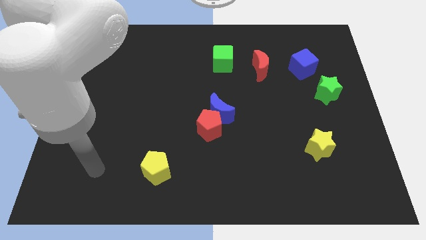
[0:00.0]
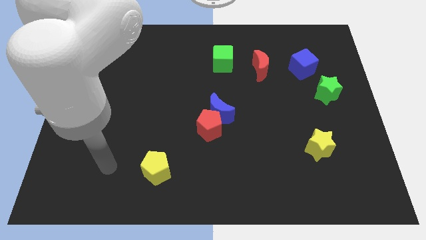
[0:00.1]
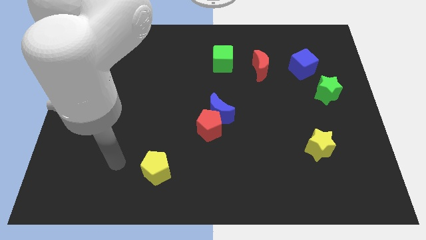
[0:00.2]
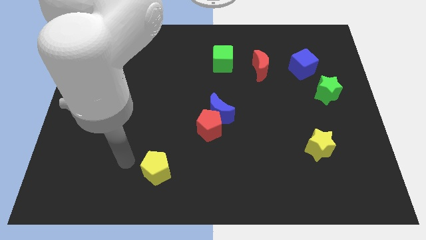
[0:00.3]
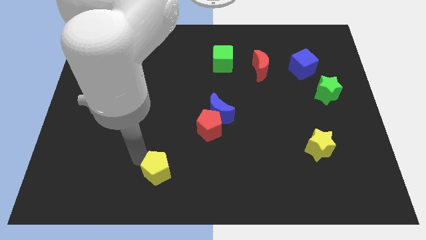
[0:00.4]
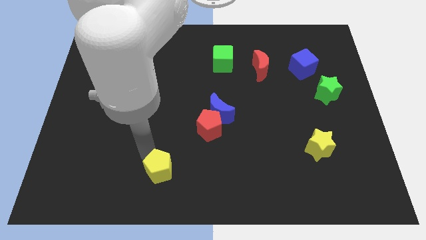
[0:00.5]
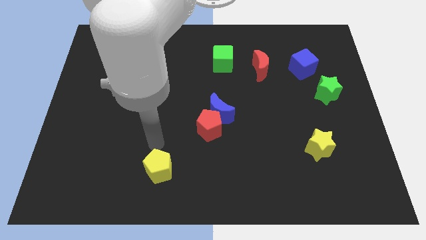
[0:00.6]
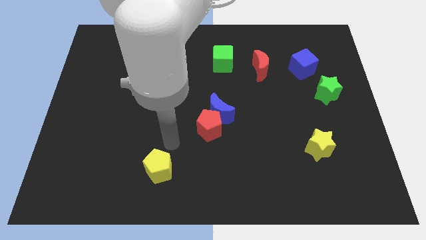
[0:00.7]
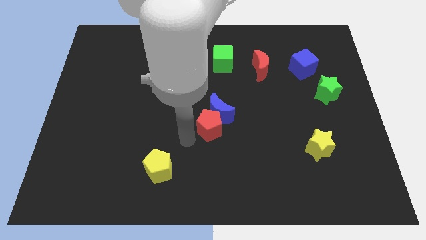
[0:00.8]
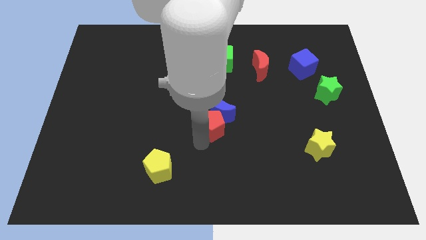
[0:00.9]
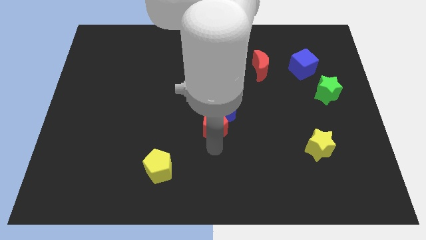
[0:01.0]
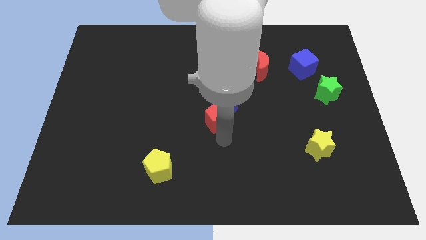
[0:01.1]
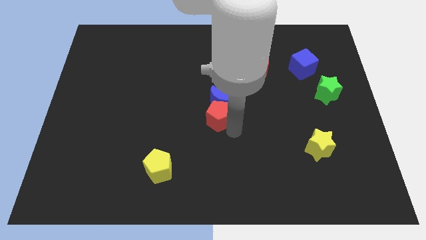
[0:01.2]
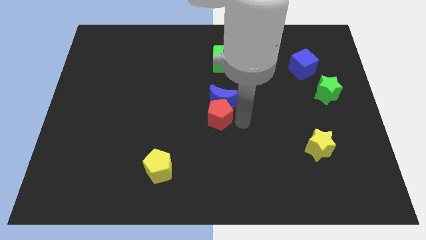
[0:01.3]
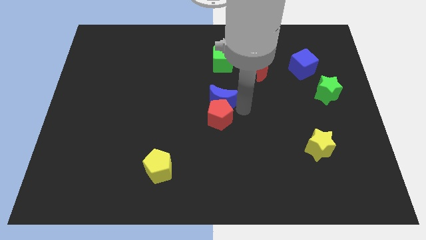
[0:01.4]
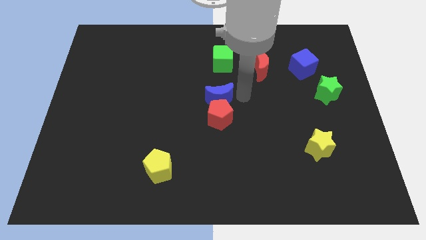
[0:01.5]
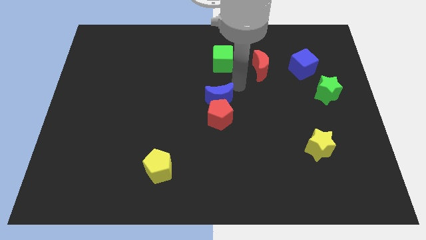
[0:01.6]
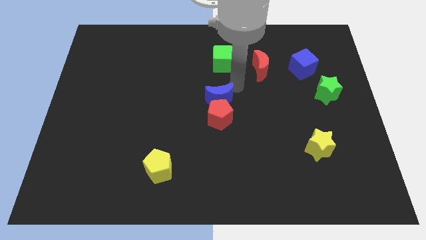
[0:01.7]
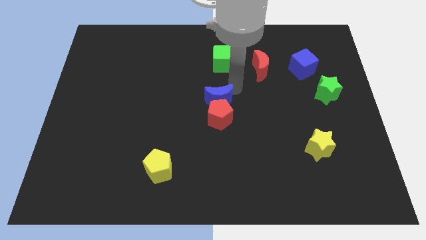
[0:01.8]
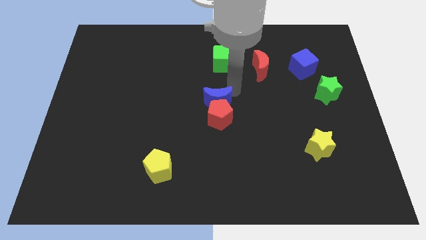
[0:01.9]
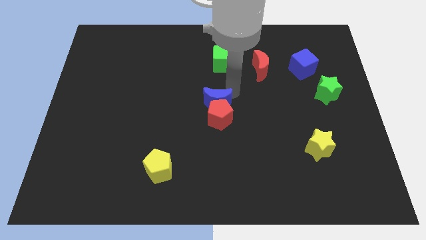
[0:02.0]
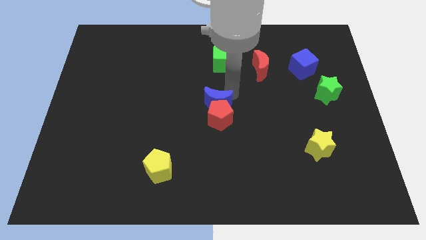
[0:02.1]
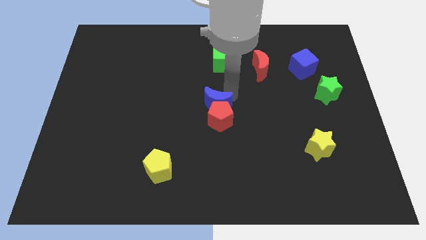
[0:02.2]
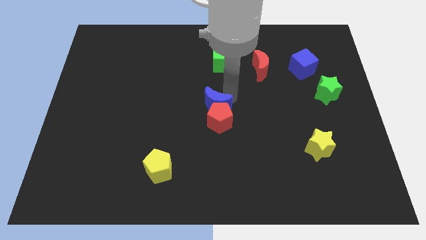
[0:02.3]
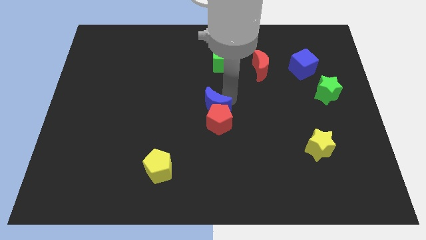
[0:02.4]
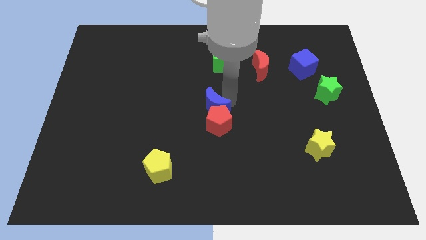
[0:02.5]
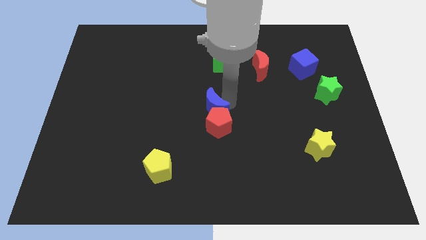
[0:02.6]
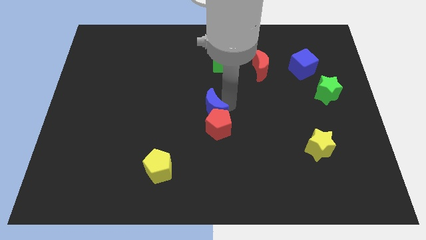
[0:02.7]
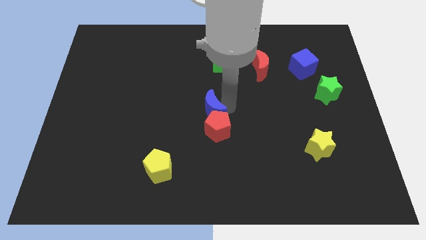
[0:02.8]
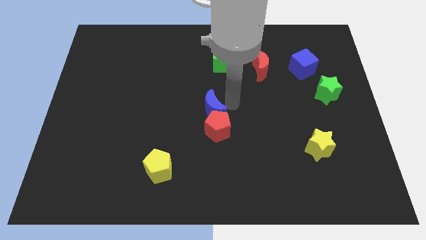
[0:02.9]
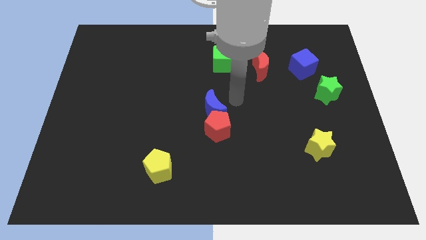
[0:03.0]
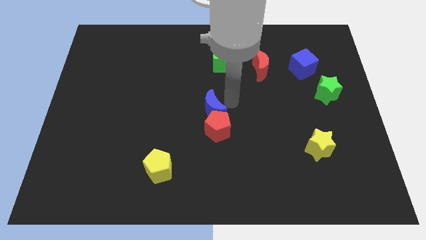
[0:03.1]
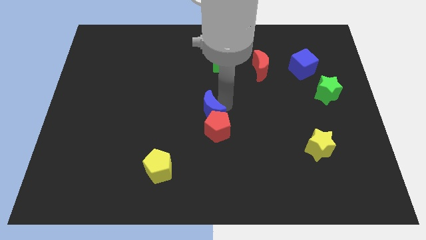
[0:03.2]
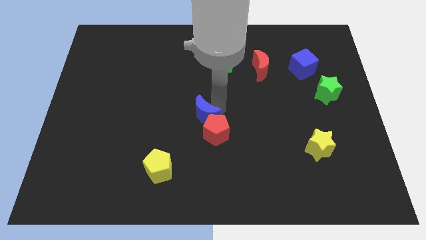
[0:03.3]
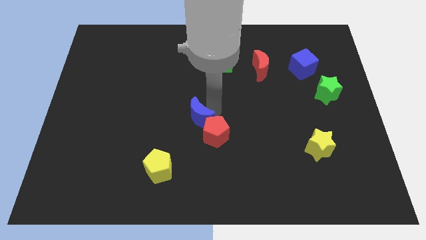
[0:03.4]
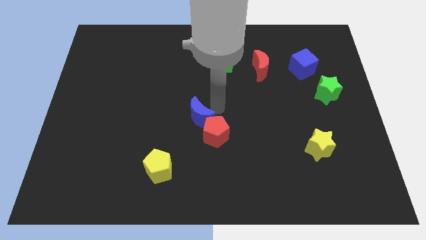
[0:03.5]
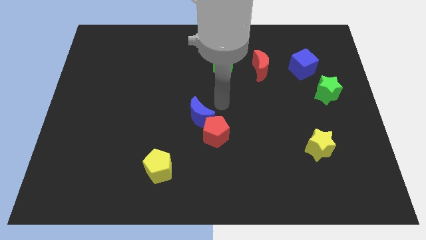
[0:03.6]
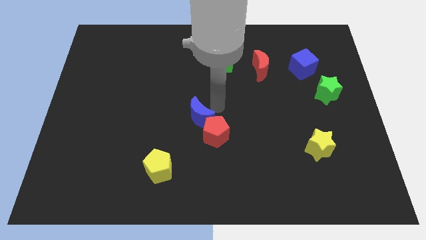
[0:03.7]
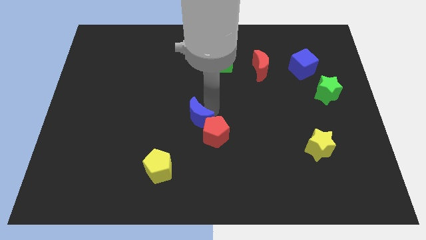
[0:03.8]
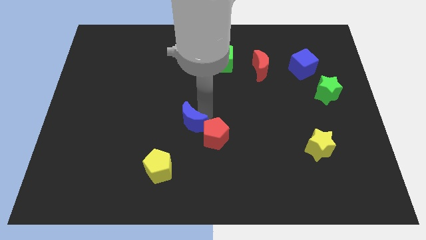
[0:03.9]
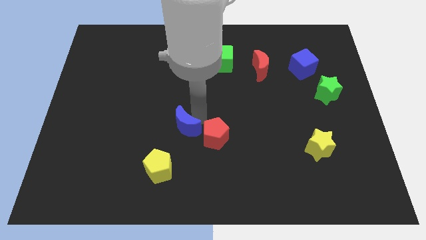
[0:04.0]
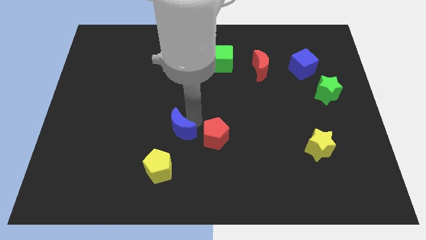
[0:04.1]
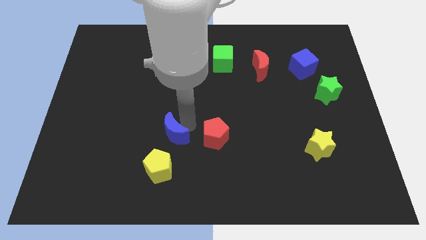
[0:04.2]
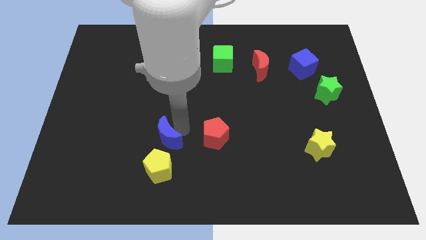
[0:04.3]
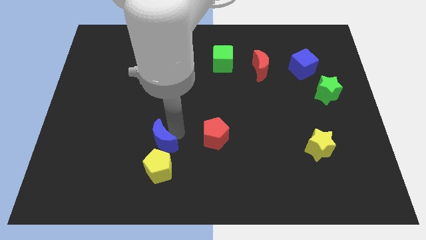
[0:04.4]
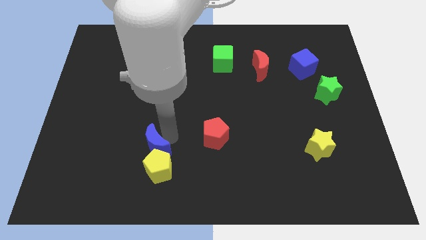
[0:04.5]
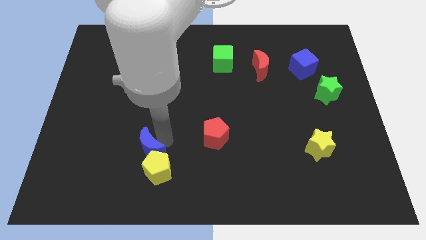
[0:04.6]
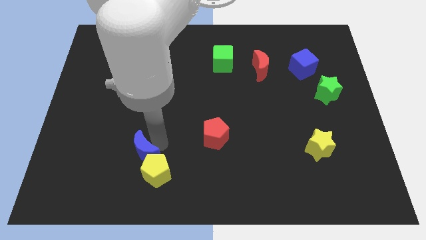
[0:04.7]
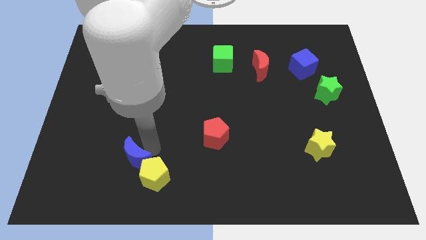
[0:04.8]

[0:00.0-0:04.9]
put the blue moon to the left of the yellow pentagon

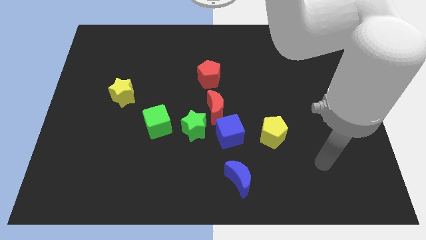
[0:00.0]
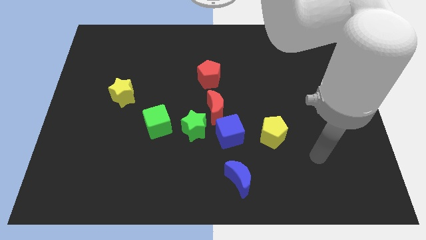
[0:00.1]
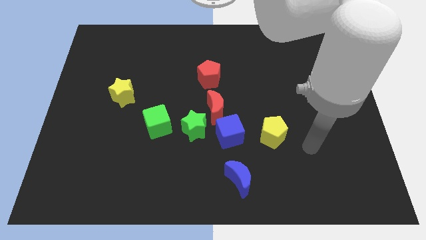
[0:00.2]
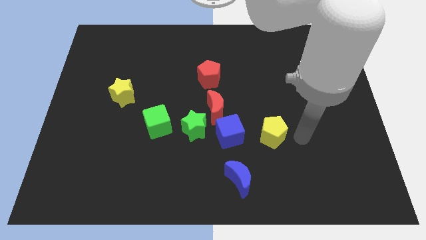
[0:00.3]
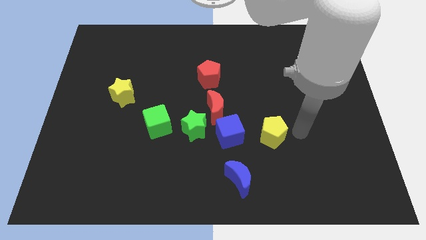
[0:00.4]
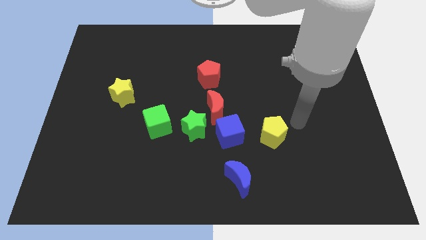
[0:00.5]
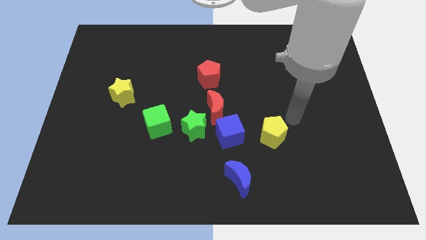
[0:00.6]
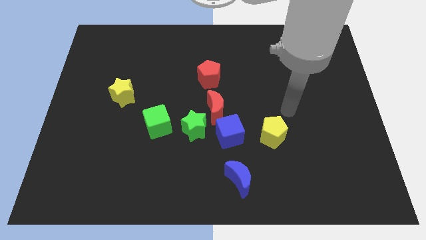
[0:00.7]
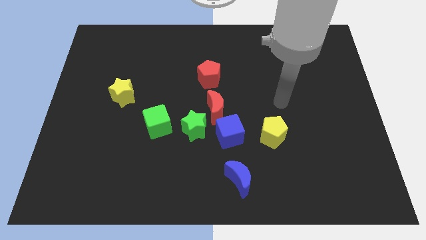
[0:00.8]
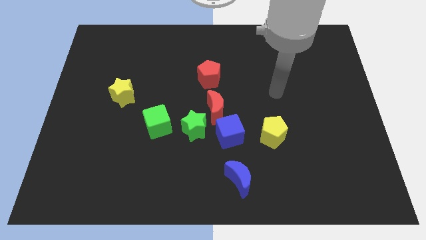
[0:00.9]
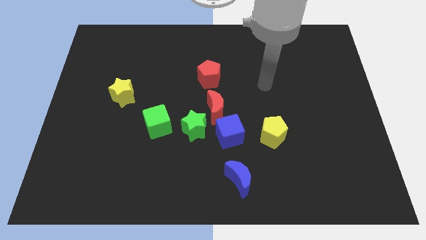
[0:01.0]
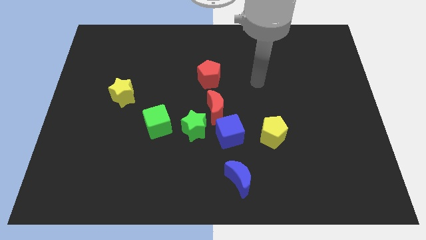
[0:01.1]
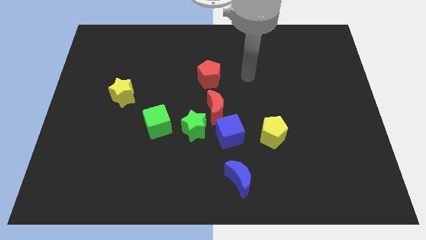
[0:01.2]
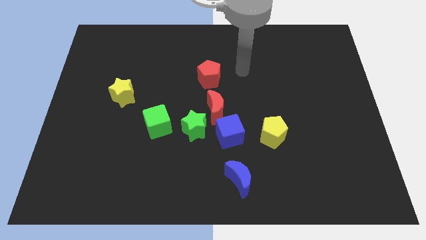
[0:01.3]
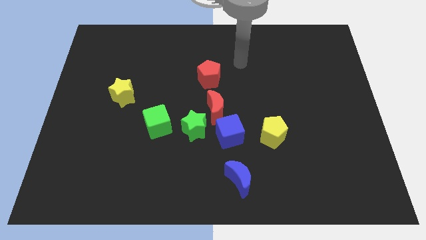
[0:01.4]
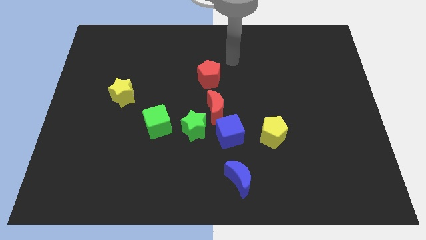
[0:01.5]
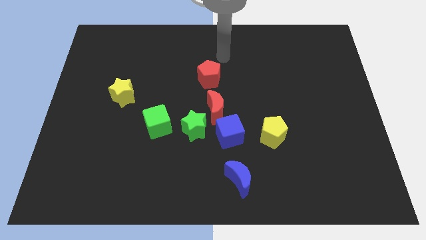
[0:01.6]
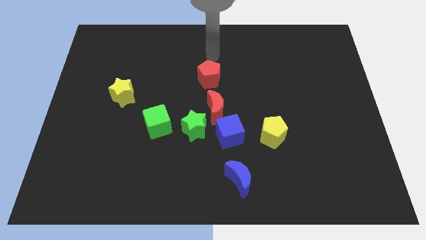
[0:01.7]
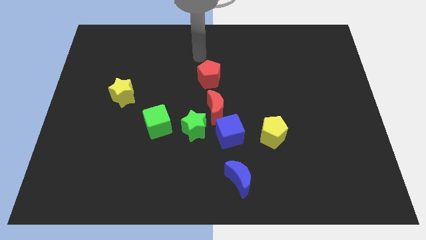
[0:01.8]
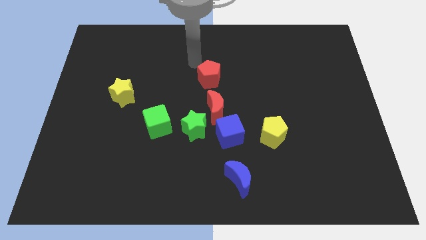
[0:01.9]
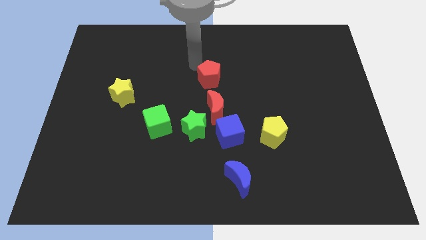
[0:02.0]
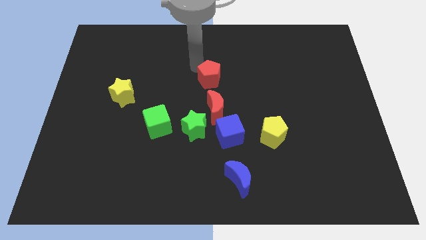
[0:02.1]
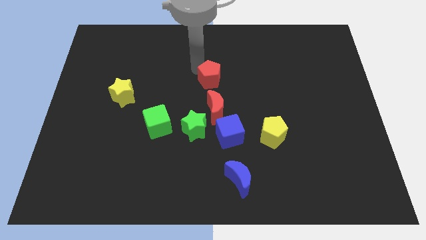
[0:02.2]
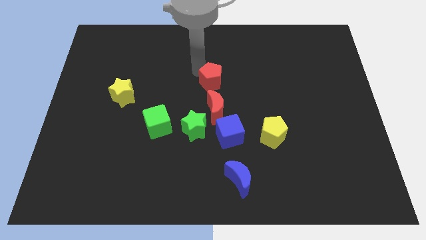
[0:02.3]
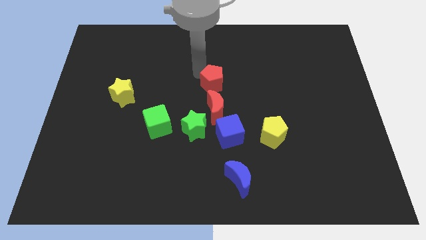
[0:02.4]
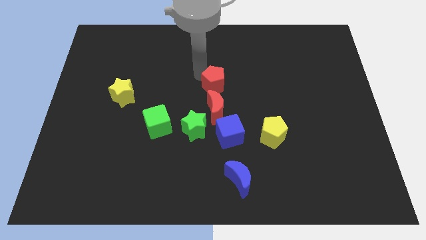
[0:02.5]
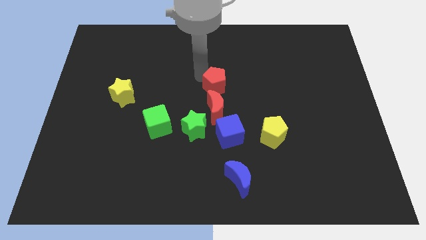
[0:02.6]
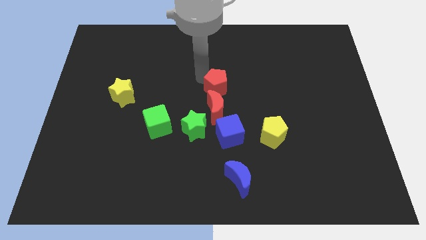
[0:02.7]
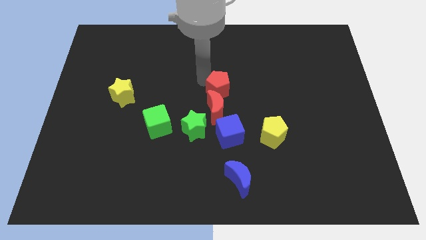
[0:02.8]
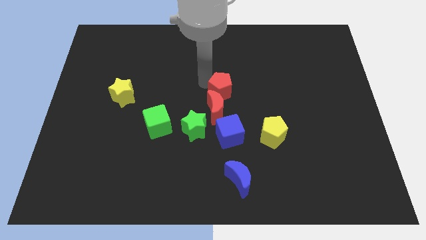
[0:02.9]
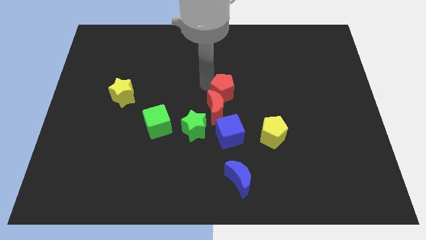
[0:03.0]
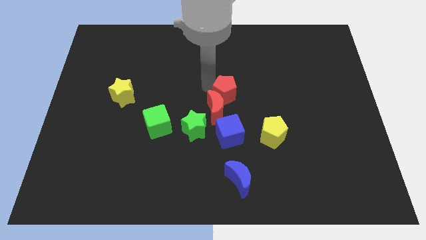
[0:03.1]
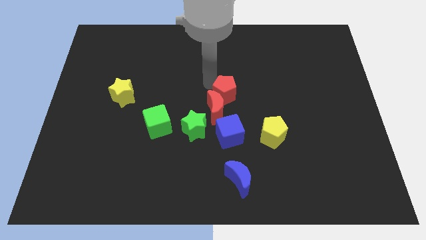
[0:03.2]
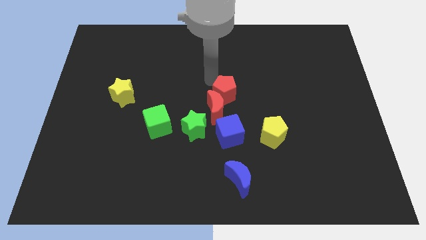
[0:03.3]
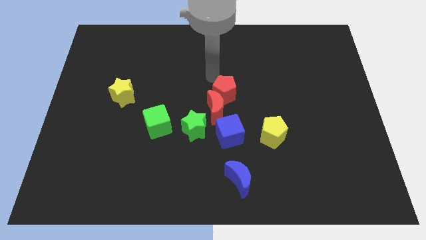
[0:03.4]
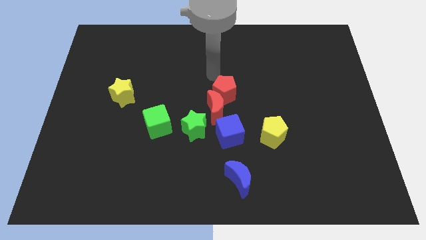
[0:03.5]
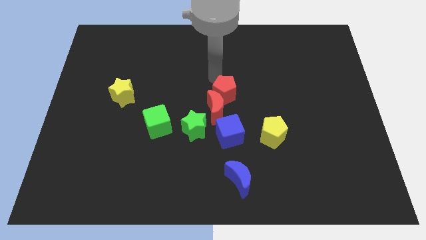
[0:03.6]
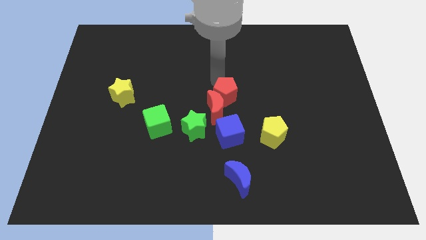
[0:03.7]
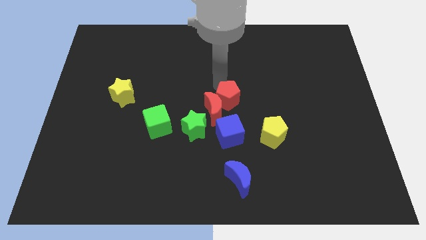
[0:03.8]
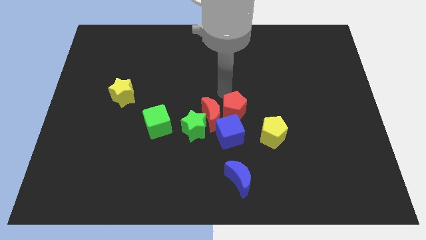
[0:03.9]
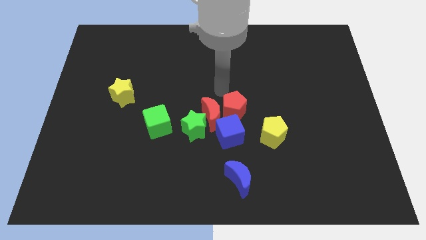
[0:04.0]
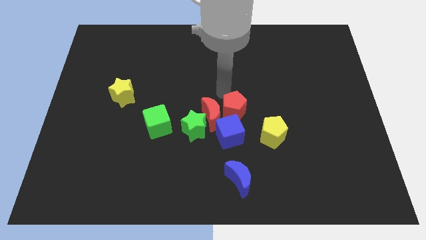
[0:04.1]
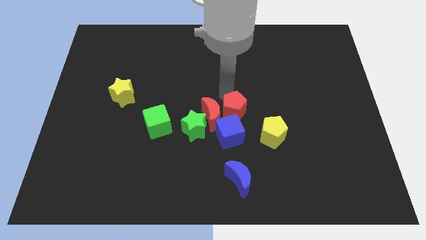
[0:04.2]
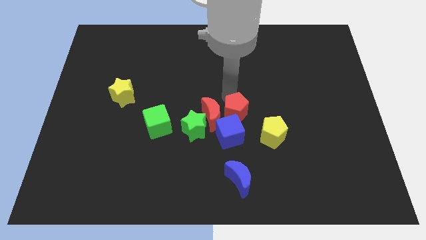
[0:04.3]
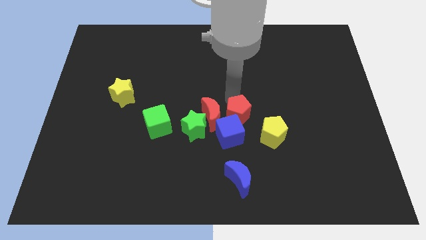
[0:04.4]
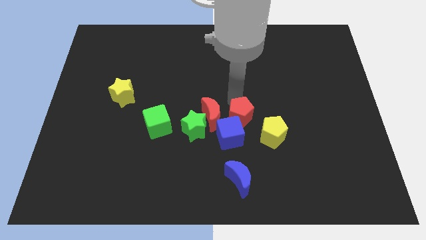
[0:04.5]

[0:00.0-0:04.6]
slide the red pentagon to the top side of the blue moon
